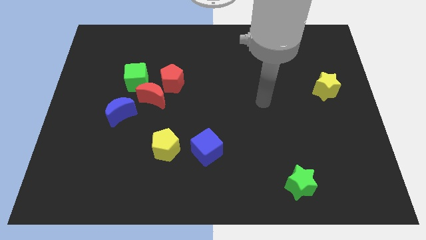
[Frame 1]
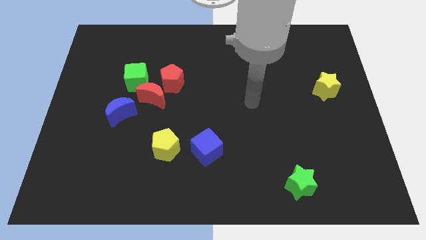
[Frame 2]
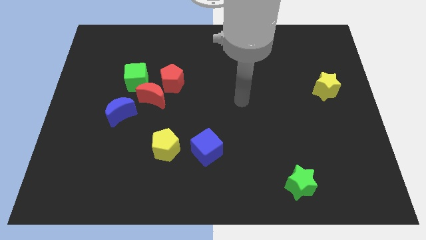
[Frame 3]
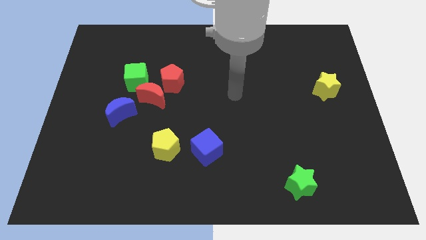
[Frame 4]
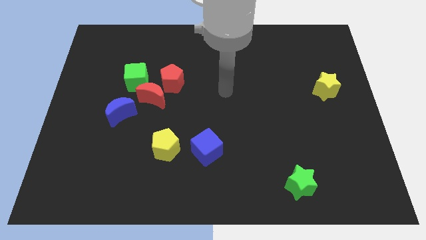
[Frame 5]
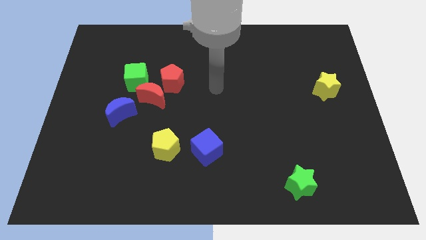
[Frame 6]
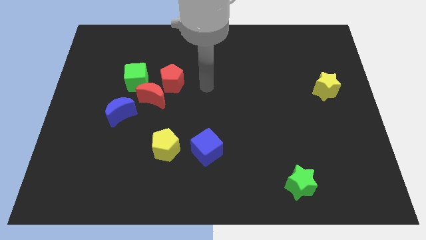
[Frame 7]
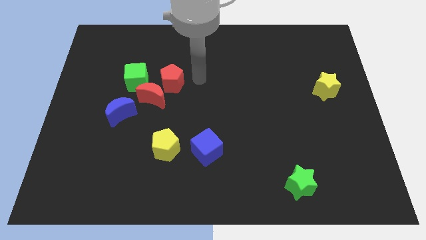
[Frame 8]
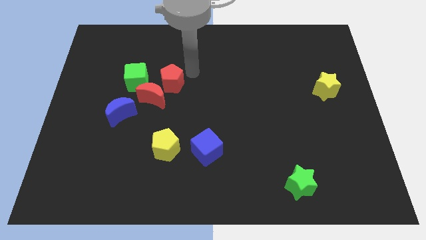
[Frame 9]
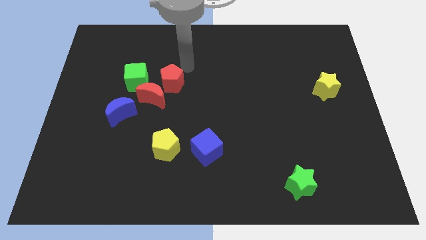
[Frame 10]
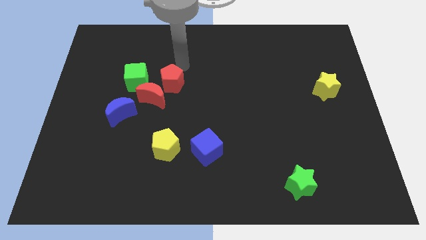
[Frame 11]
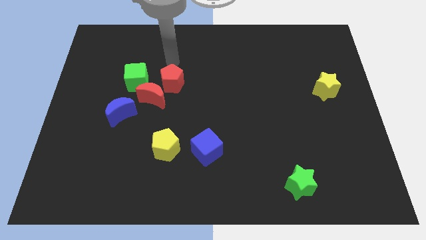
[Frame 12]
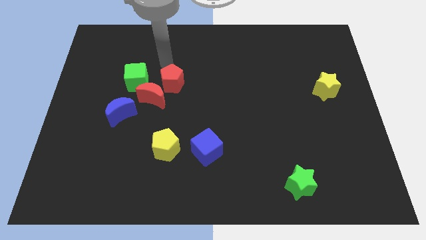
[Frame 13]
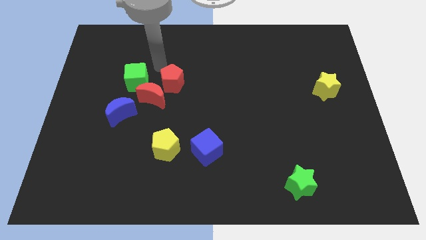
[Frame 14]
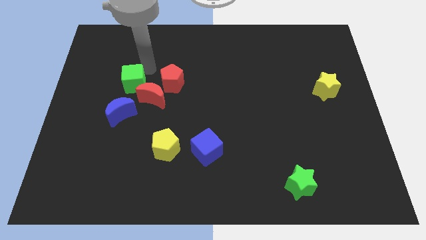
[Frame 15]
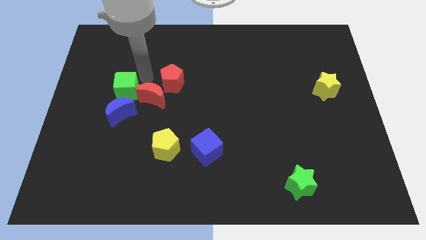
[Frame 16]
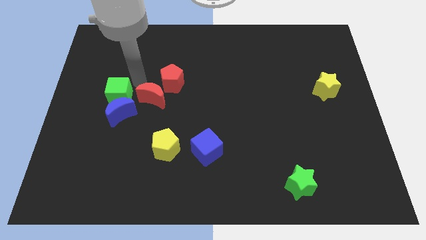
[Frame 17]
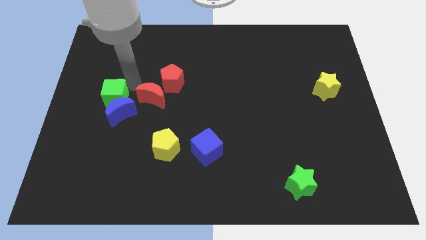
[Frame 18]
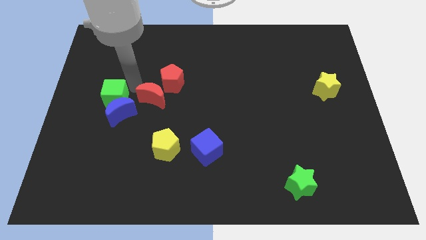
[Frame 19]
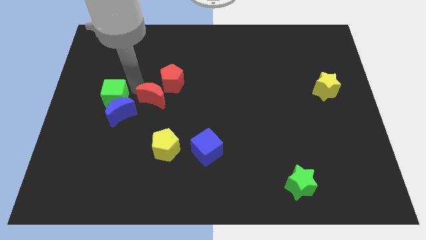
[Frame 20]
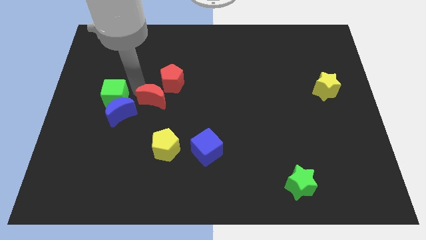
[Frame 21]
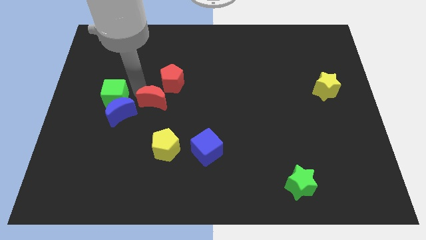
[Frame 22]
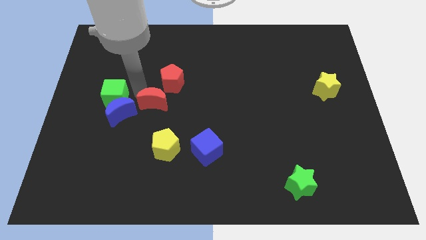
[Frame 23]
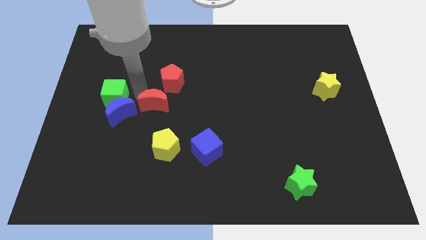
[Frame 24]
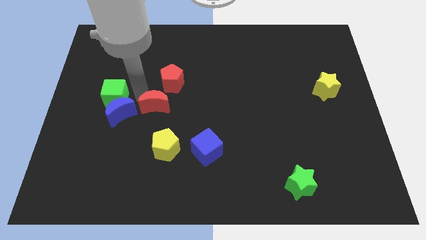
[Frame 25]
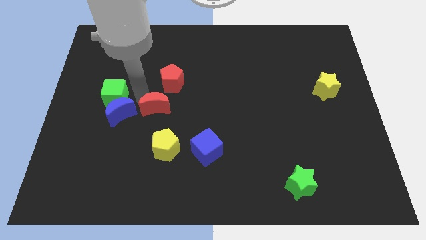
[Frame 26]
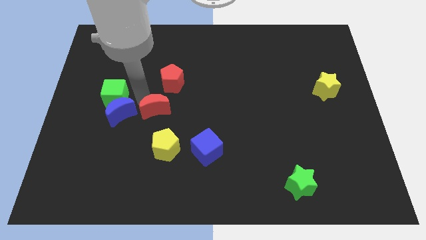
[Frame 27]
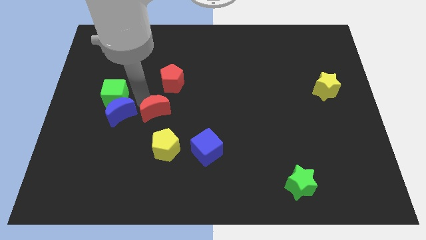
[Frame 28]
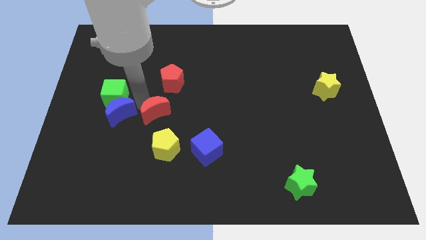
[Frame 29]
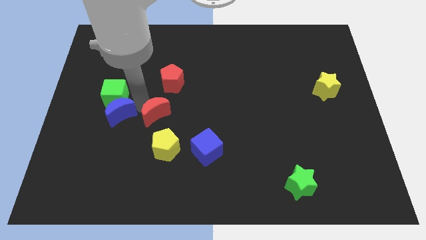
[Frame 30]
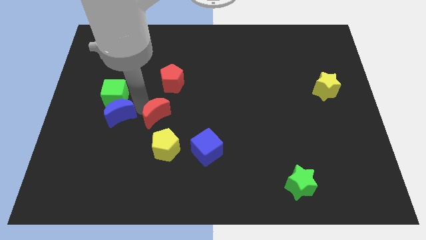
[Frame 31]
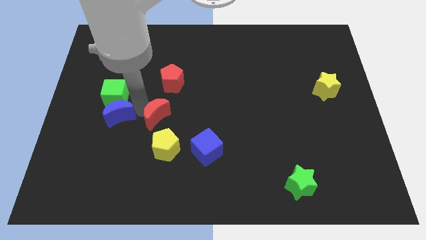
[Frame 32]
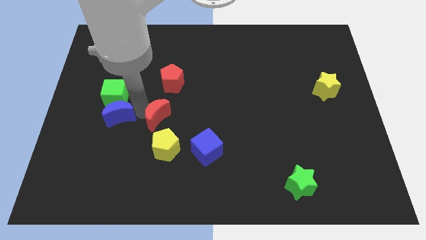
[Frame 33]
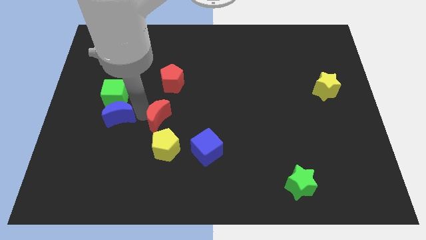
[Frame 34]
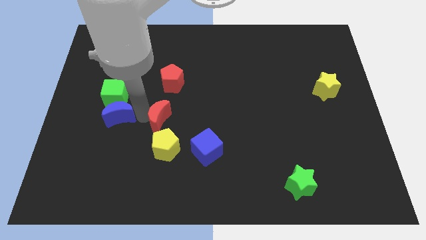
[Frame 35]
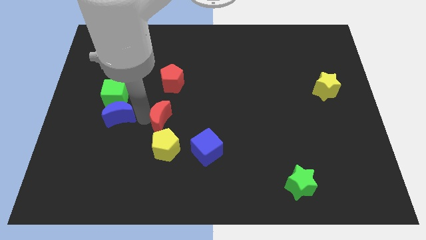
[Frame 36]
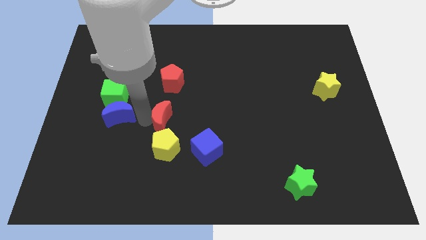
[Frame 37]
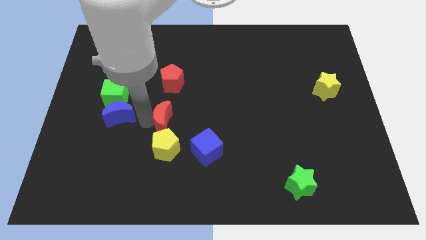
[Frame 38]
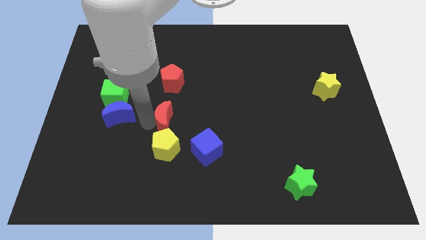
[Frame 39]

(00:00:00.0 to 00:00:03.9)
pull the red moon apart from the red pentagon, green cube, and blue moon

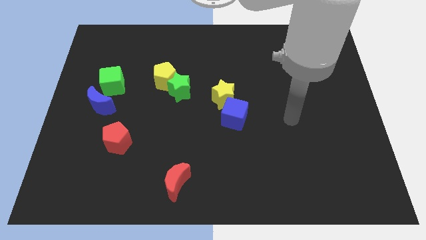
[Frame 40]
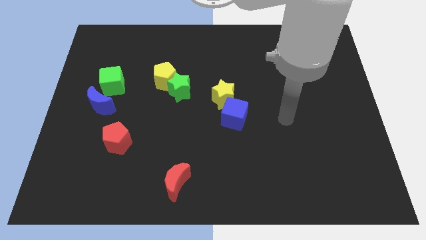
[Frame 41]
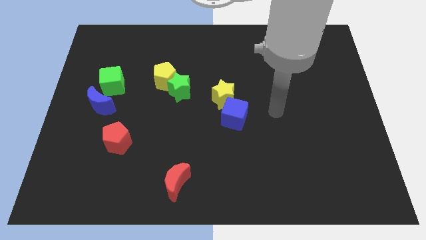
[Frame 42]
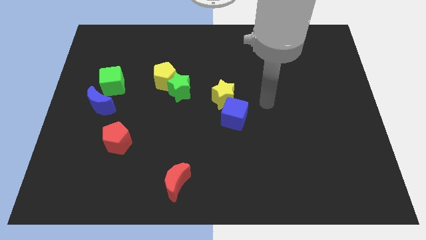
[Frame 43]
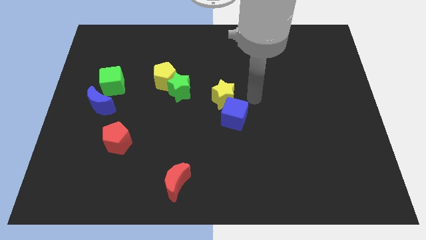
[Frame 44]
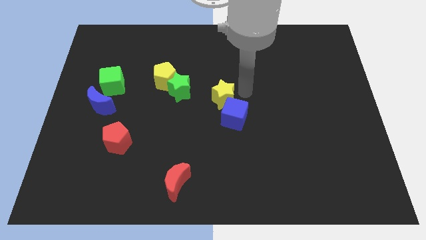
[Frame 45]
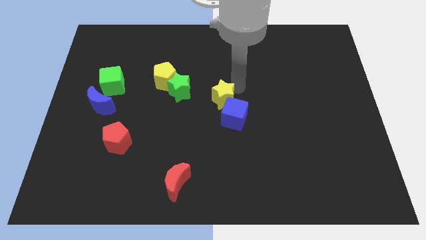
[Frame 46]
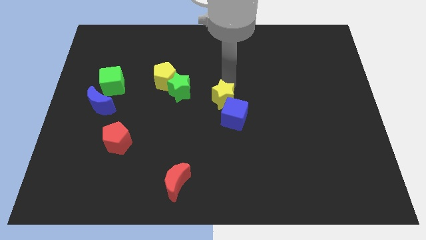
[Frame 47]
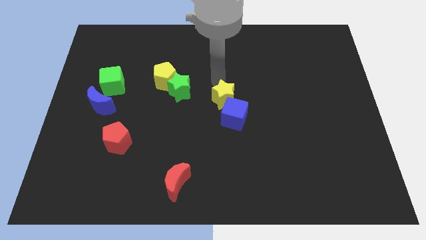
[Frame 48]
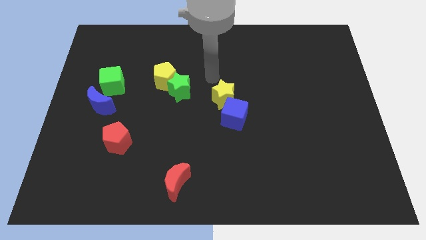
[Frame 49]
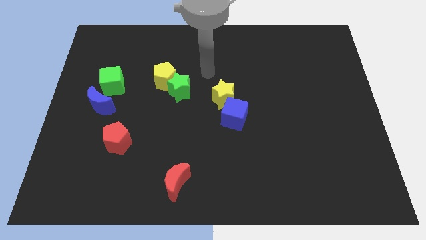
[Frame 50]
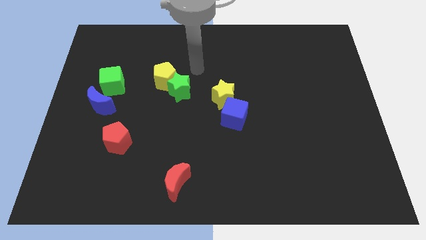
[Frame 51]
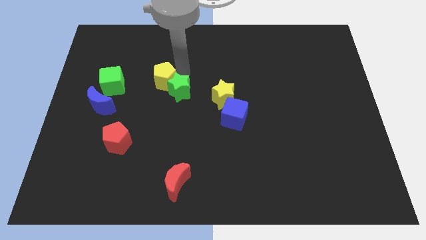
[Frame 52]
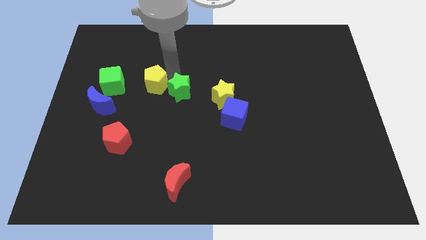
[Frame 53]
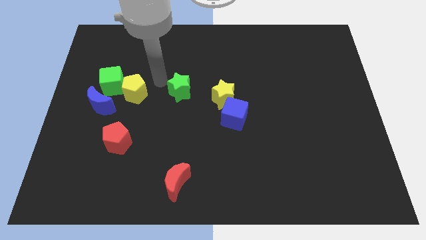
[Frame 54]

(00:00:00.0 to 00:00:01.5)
move the green star away from the yellow pentagon

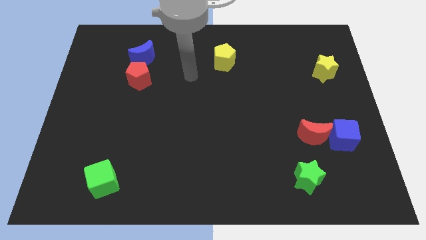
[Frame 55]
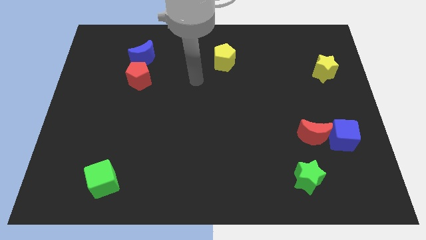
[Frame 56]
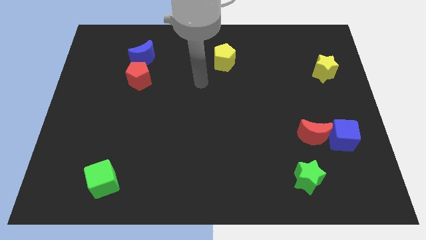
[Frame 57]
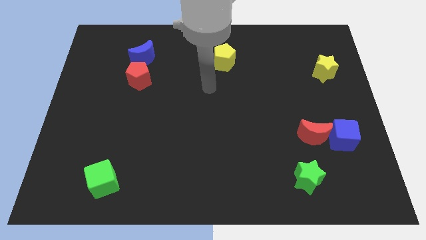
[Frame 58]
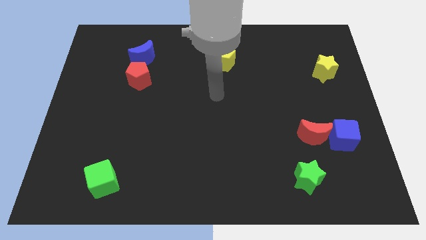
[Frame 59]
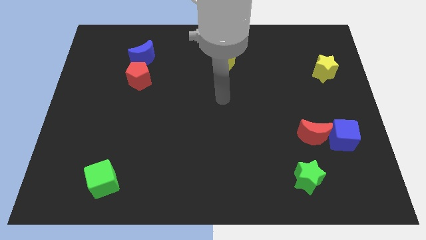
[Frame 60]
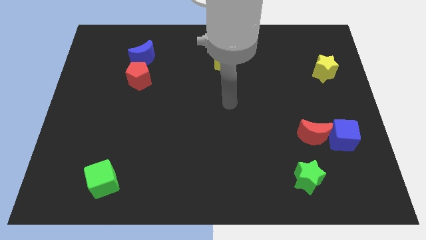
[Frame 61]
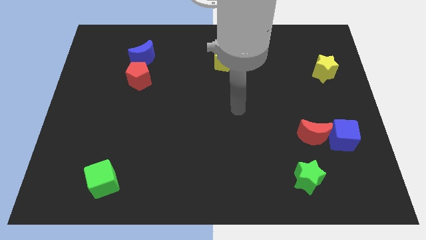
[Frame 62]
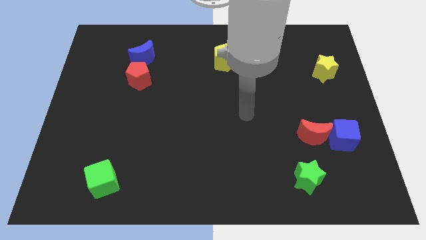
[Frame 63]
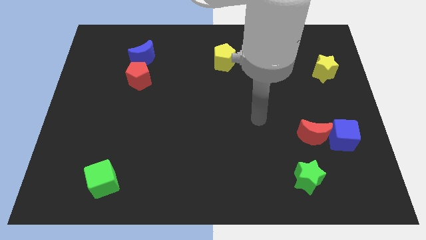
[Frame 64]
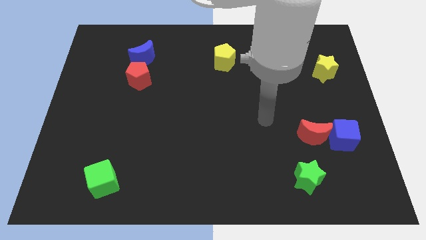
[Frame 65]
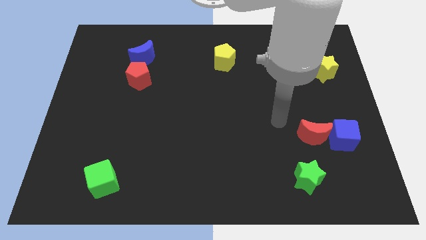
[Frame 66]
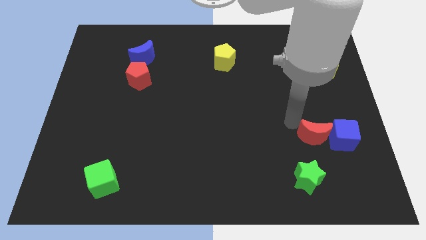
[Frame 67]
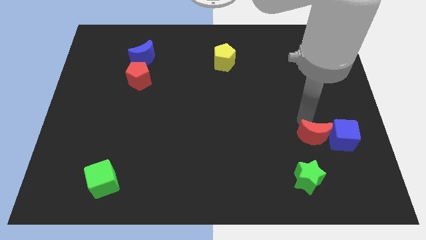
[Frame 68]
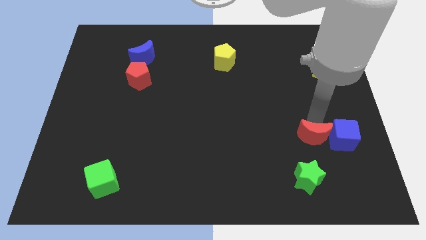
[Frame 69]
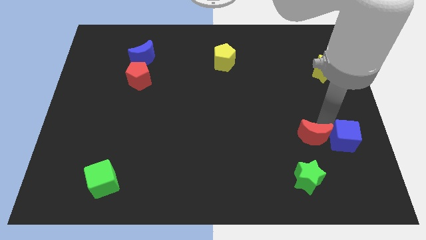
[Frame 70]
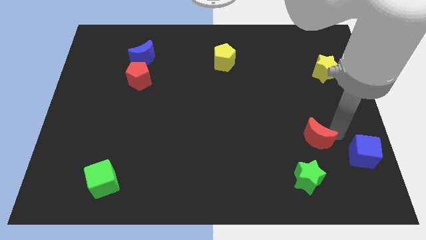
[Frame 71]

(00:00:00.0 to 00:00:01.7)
pull the red moon apart from the blue cube

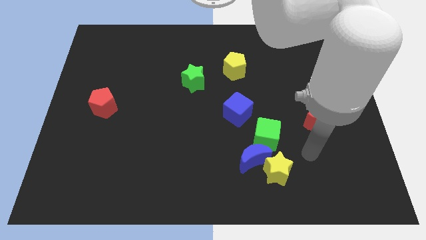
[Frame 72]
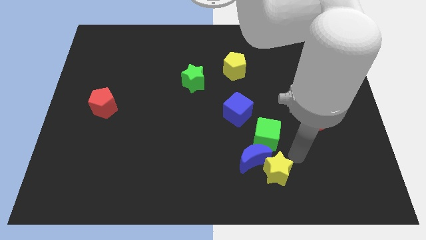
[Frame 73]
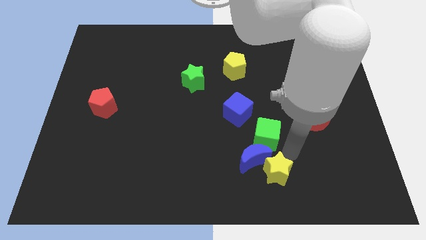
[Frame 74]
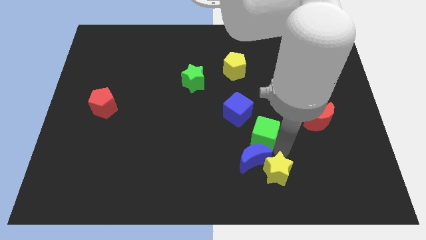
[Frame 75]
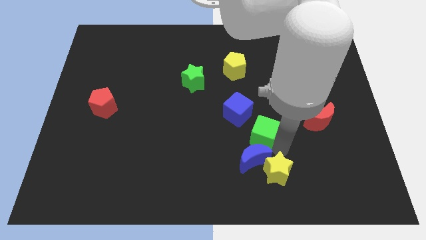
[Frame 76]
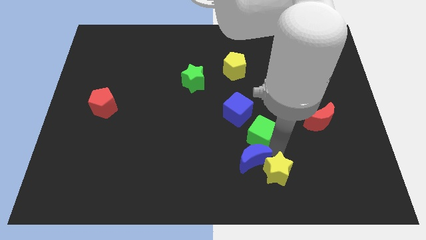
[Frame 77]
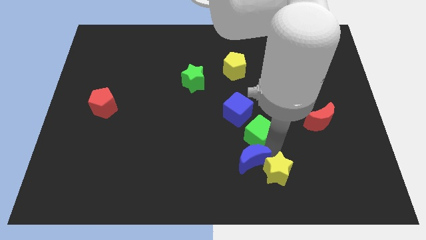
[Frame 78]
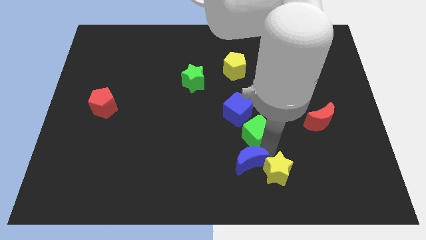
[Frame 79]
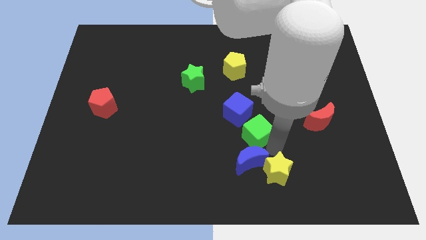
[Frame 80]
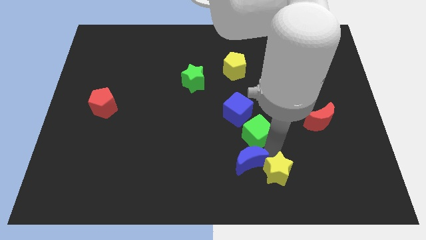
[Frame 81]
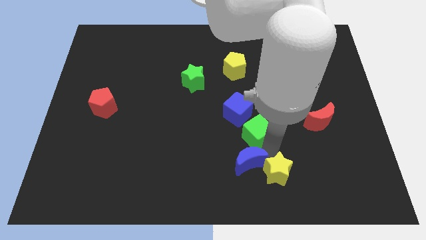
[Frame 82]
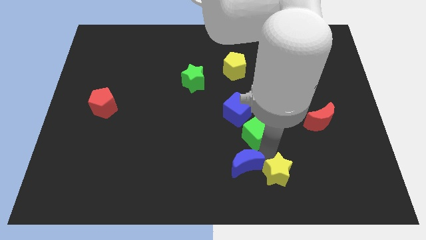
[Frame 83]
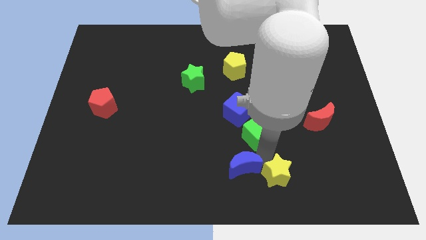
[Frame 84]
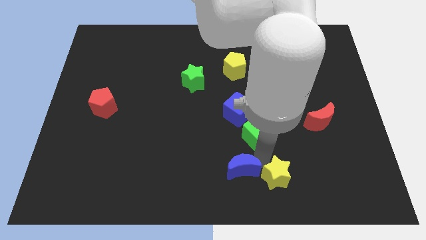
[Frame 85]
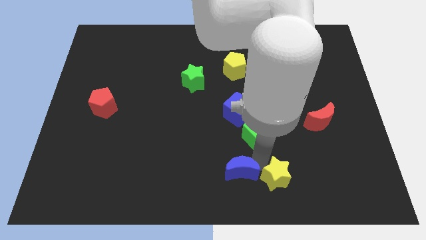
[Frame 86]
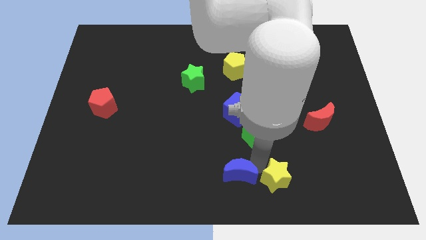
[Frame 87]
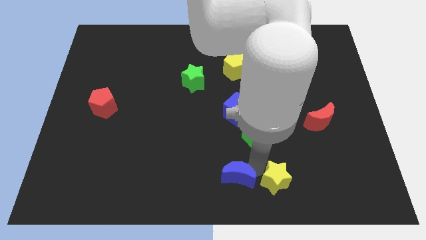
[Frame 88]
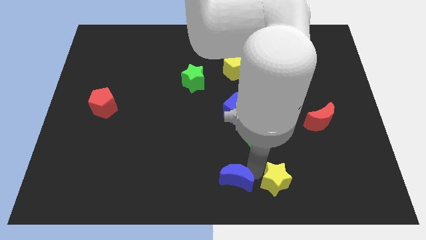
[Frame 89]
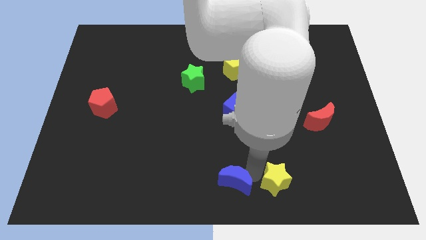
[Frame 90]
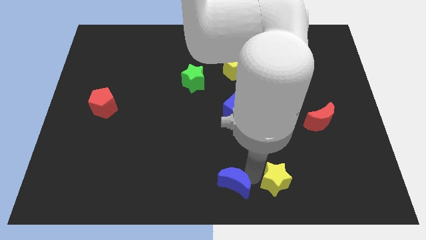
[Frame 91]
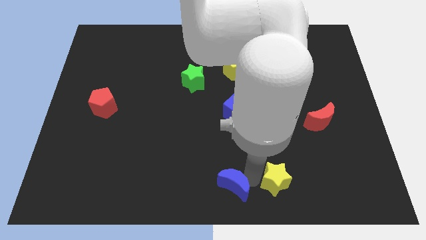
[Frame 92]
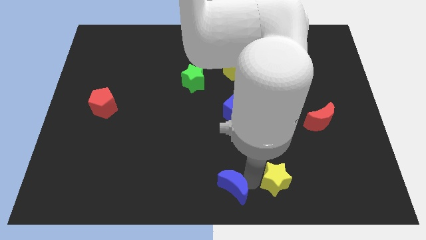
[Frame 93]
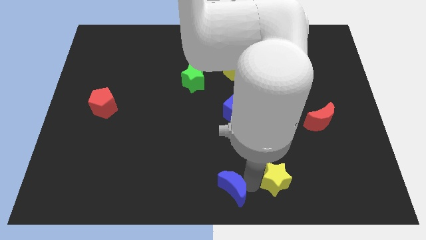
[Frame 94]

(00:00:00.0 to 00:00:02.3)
pull the blue moon apart from the yellow star and green cube

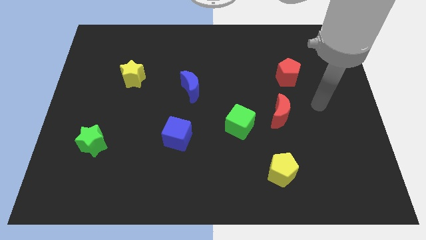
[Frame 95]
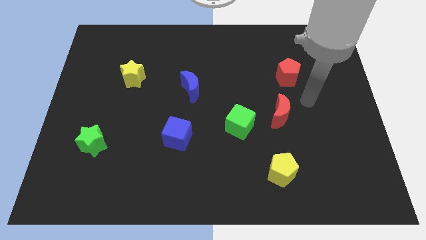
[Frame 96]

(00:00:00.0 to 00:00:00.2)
move the red moon away from the green cube
